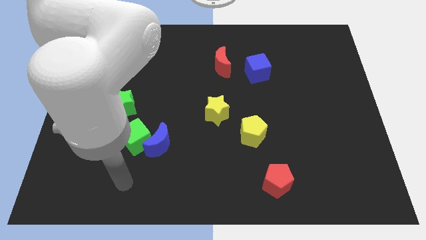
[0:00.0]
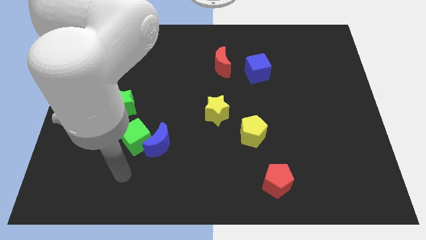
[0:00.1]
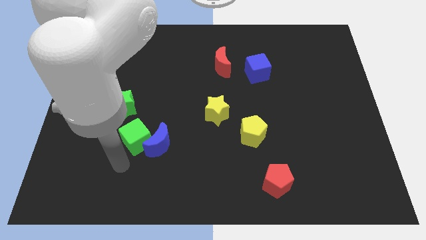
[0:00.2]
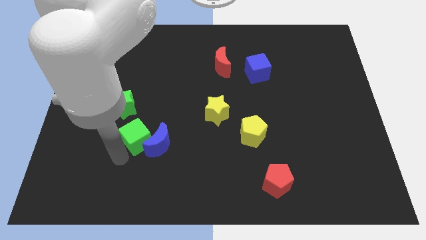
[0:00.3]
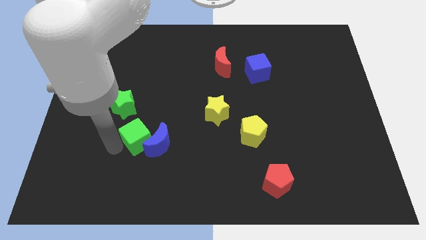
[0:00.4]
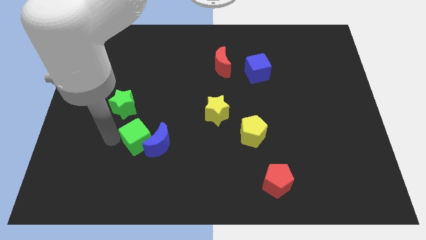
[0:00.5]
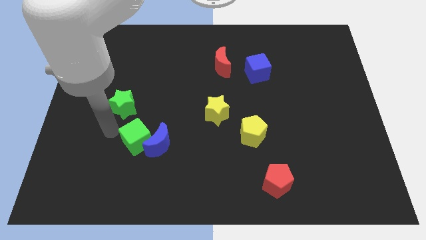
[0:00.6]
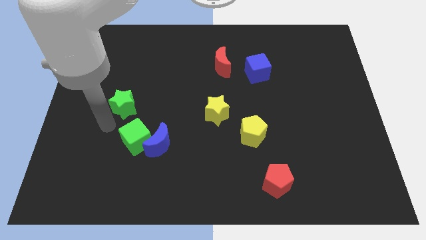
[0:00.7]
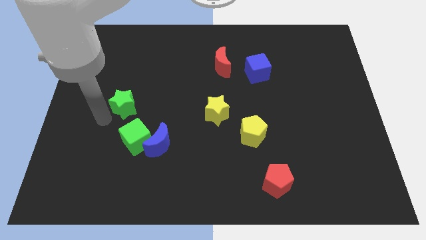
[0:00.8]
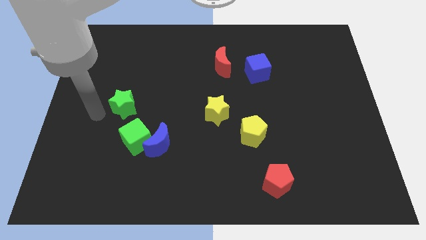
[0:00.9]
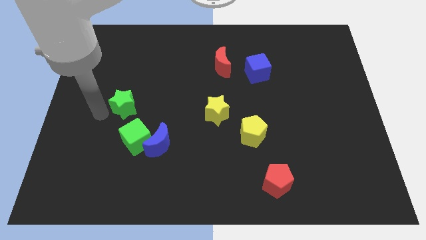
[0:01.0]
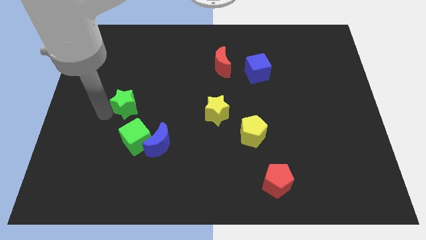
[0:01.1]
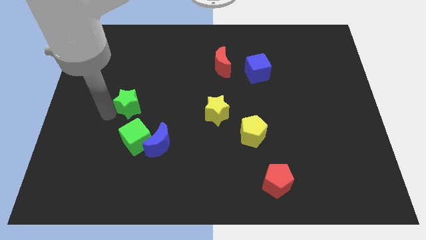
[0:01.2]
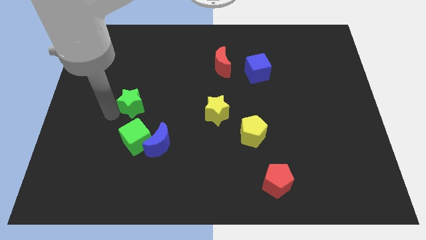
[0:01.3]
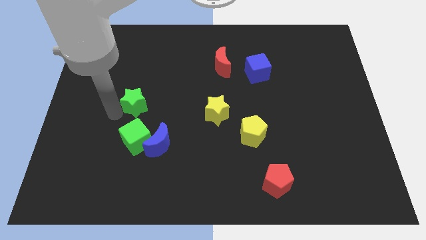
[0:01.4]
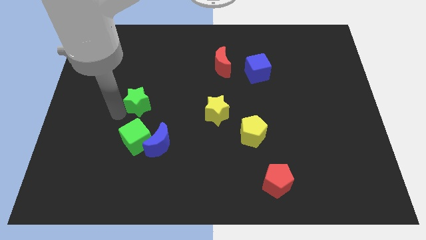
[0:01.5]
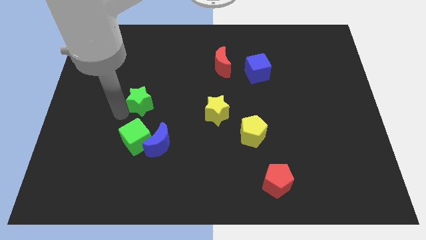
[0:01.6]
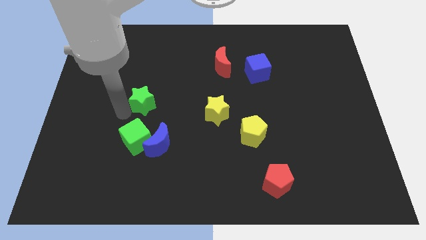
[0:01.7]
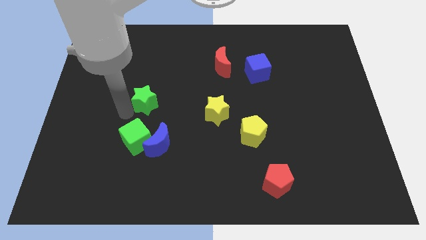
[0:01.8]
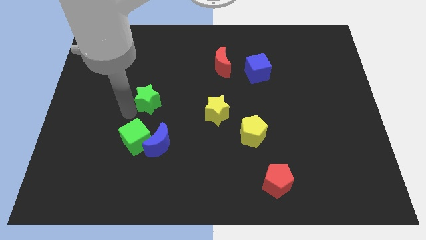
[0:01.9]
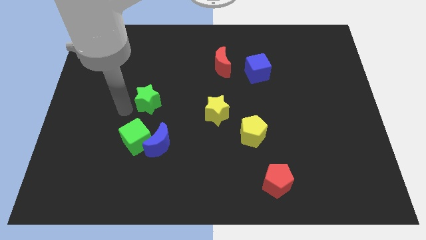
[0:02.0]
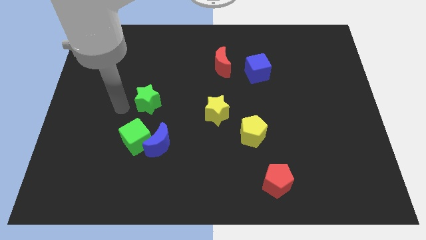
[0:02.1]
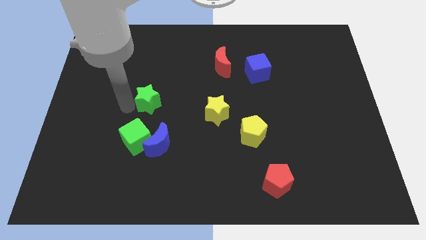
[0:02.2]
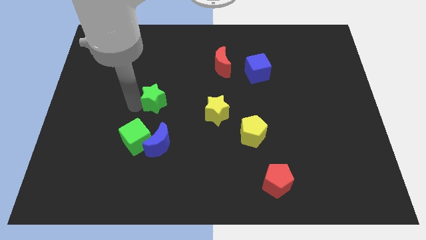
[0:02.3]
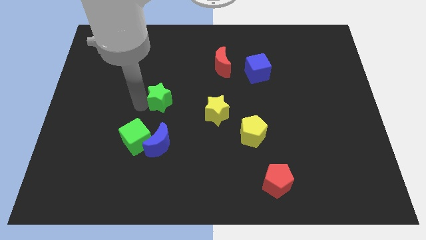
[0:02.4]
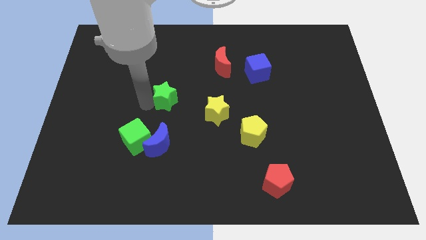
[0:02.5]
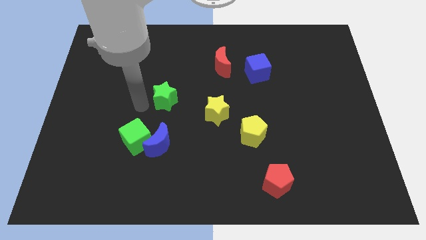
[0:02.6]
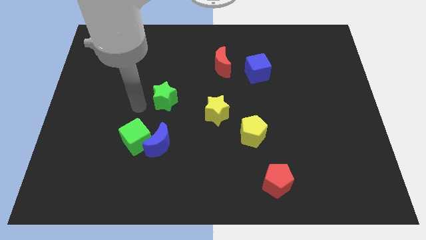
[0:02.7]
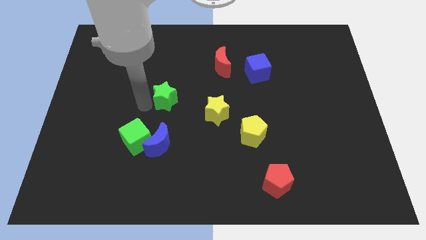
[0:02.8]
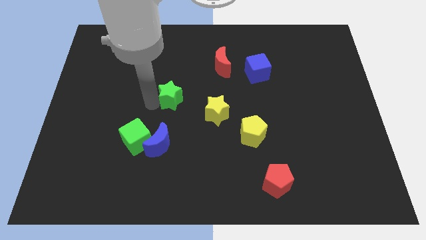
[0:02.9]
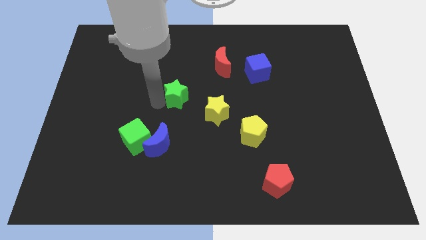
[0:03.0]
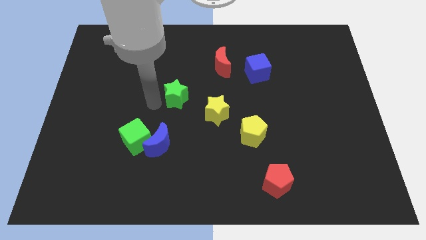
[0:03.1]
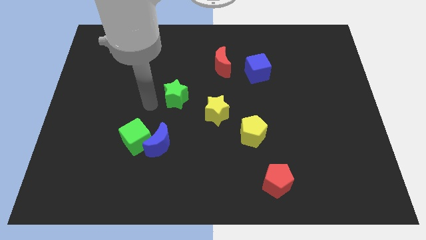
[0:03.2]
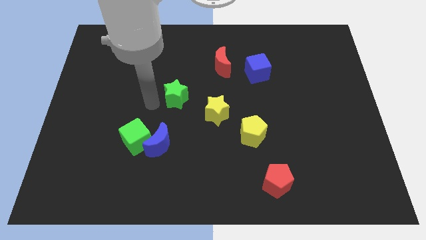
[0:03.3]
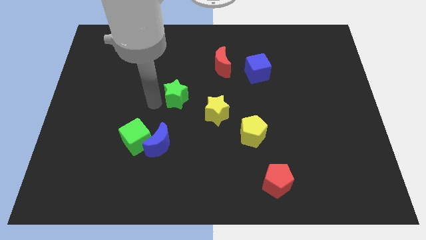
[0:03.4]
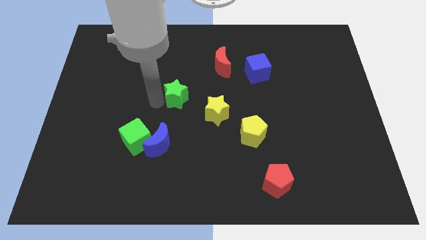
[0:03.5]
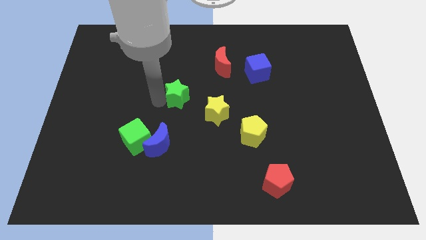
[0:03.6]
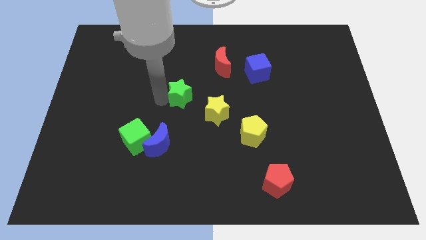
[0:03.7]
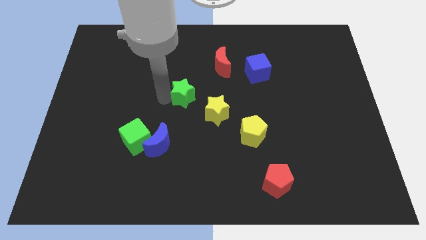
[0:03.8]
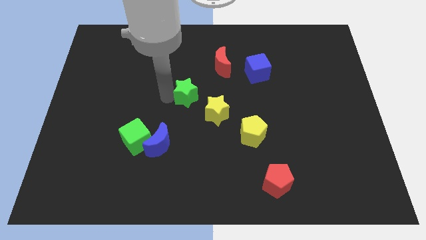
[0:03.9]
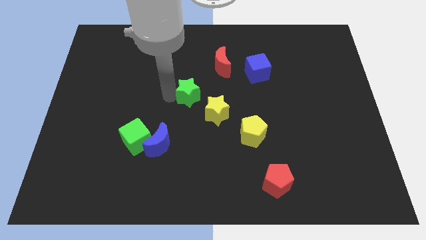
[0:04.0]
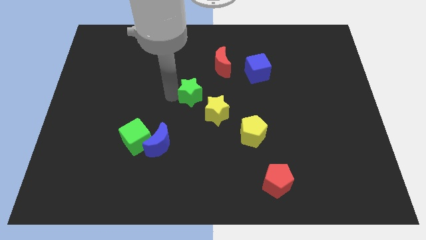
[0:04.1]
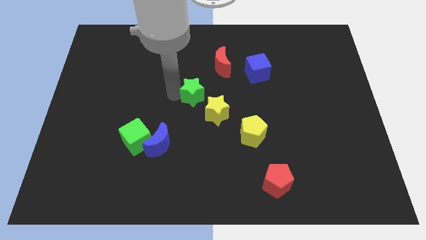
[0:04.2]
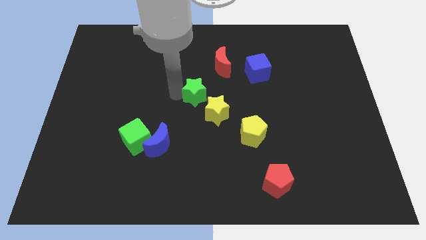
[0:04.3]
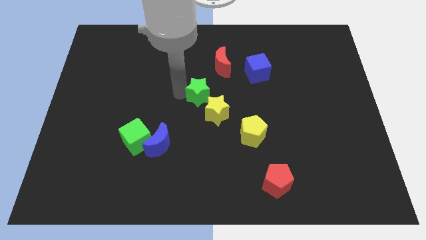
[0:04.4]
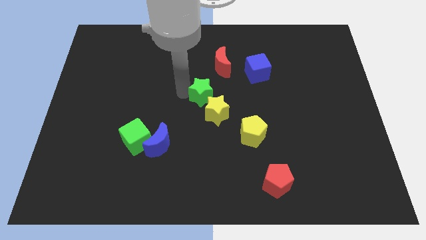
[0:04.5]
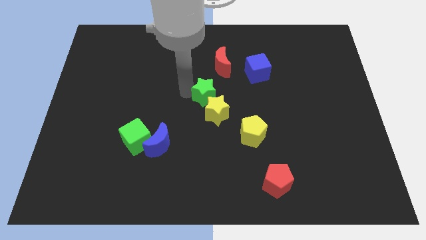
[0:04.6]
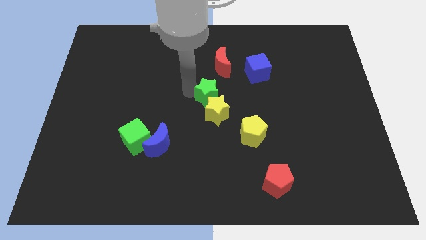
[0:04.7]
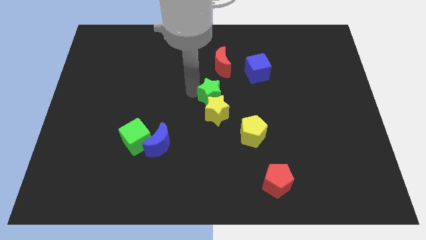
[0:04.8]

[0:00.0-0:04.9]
slide the green star to the right

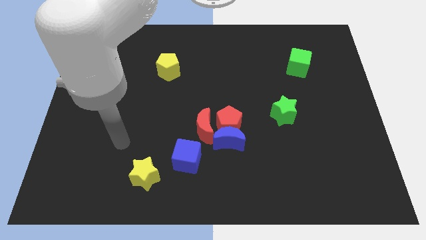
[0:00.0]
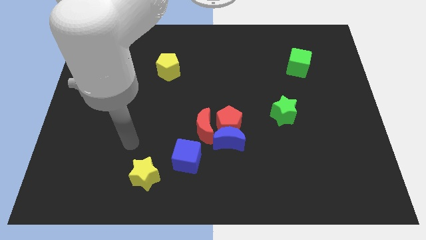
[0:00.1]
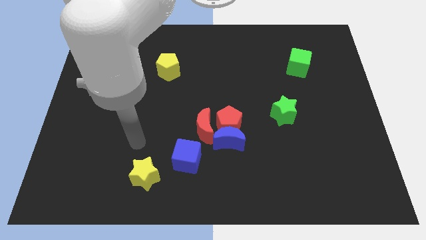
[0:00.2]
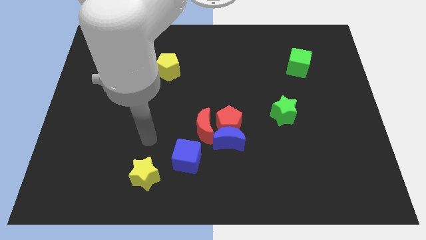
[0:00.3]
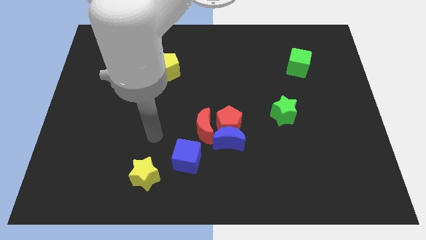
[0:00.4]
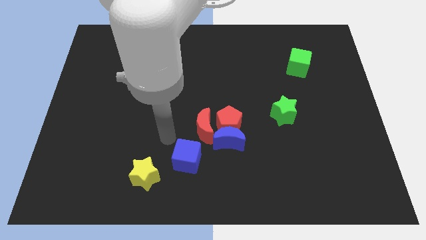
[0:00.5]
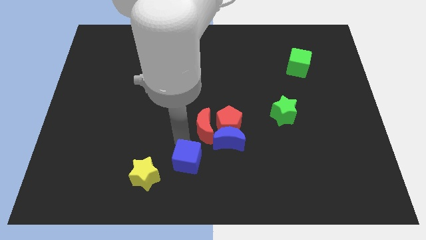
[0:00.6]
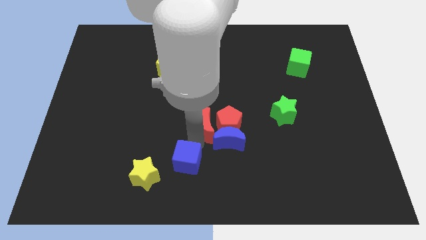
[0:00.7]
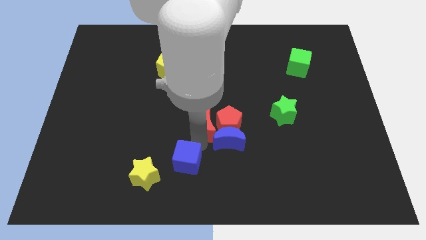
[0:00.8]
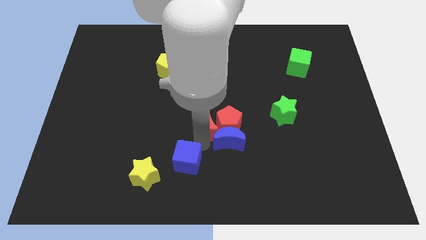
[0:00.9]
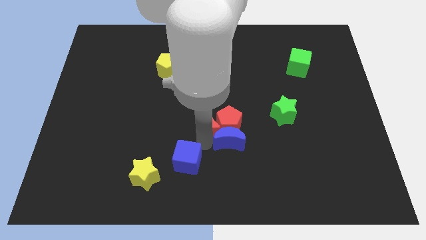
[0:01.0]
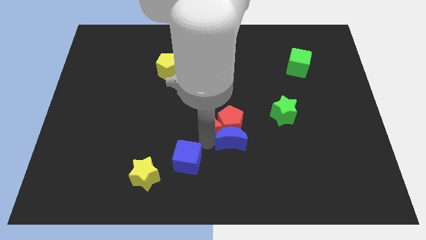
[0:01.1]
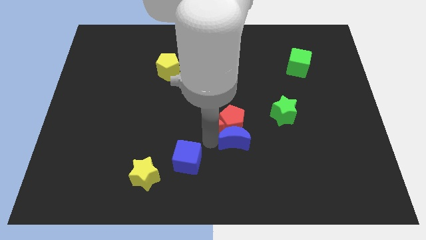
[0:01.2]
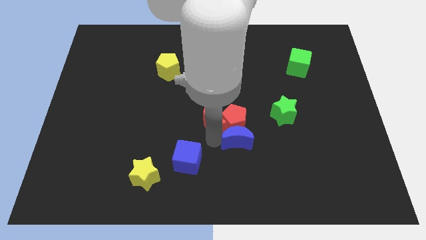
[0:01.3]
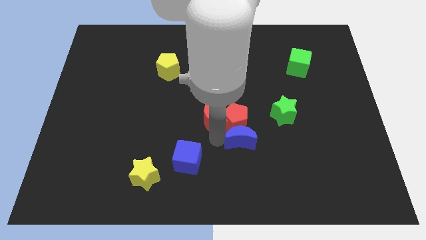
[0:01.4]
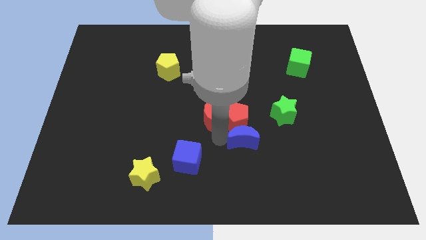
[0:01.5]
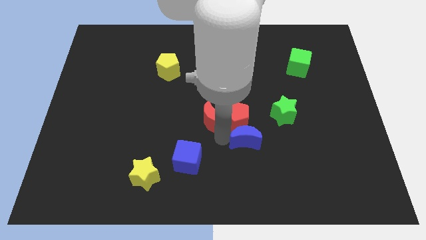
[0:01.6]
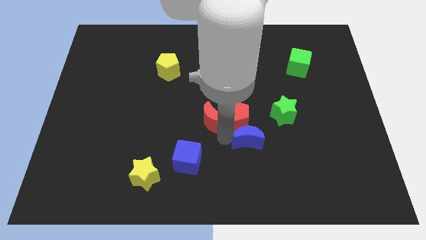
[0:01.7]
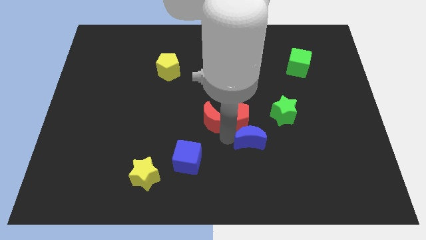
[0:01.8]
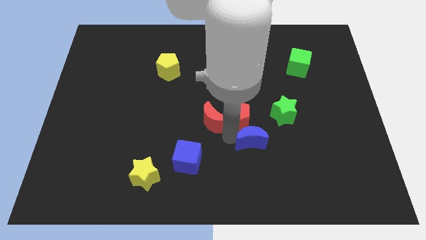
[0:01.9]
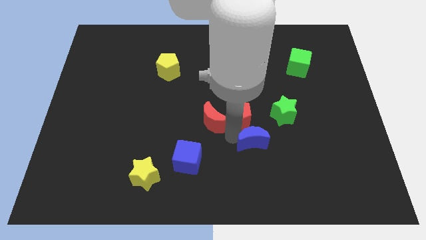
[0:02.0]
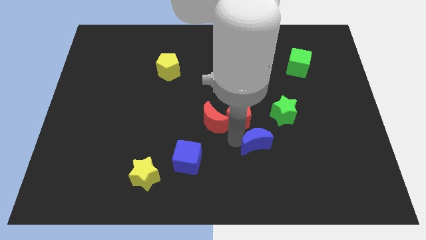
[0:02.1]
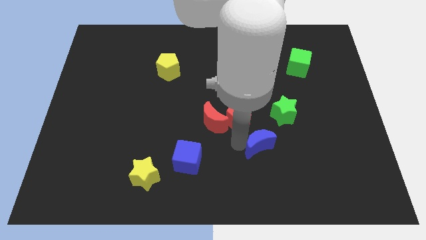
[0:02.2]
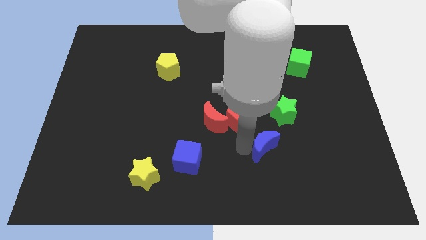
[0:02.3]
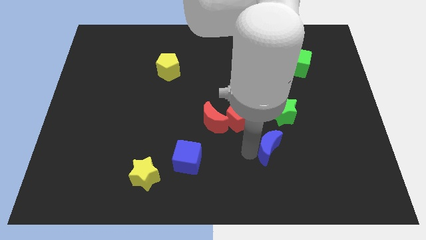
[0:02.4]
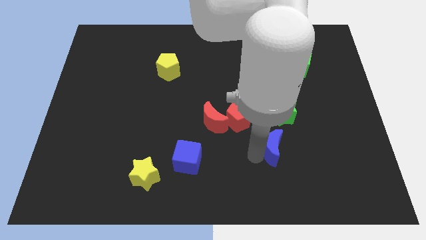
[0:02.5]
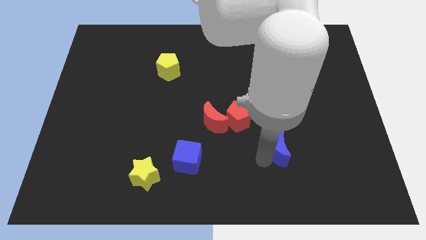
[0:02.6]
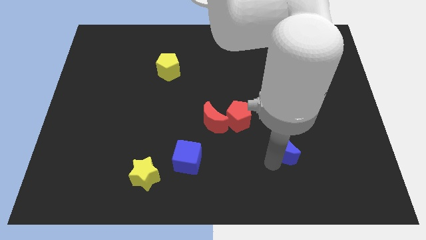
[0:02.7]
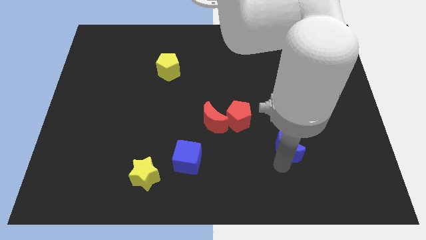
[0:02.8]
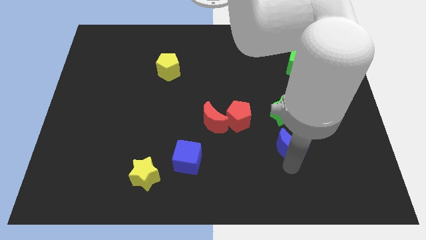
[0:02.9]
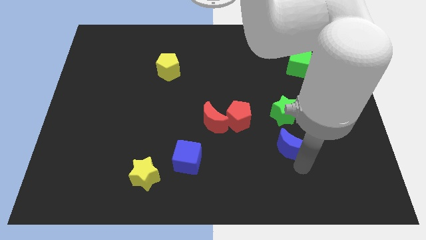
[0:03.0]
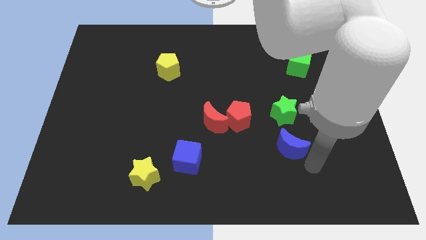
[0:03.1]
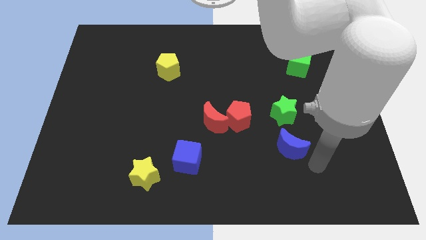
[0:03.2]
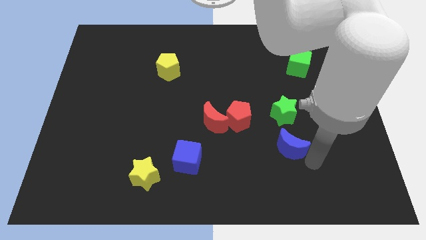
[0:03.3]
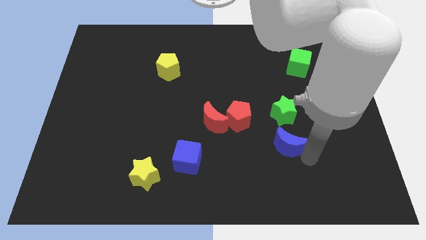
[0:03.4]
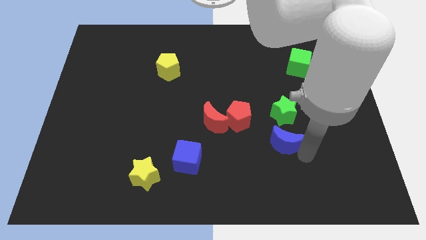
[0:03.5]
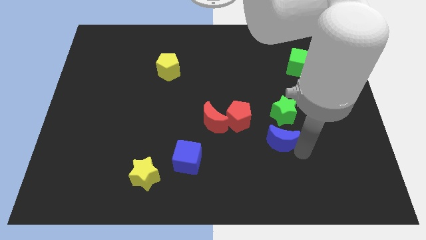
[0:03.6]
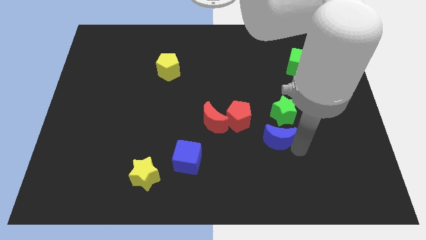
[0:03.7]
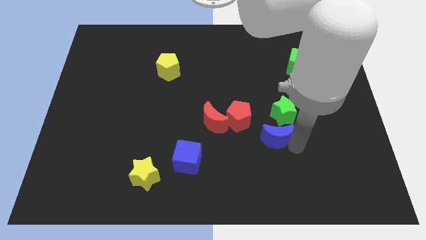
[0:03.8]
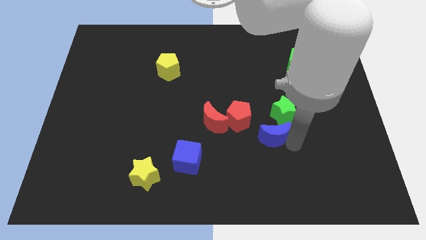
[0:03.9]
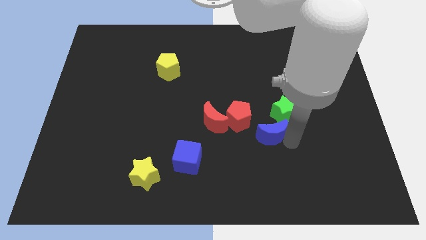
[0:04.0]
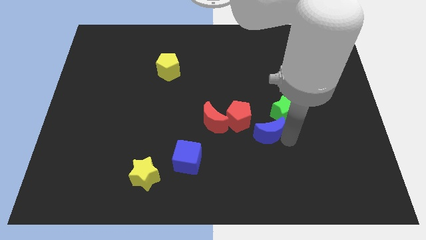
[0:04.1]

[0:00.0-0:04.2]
slightly move the blue moon diagonally up and to the right
